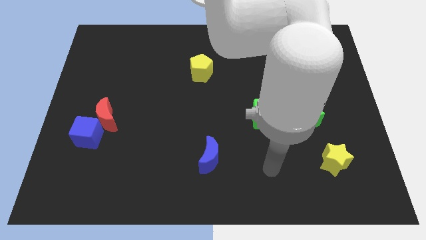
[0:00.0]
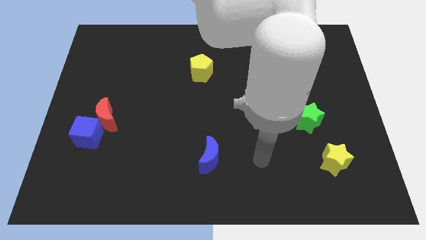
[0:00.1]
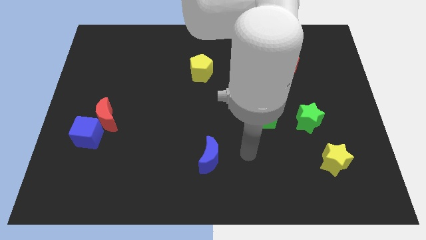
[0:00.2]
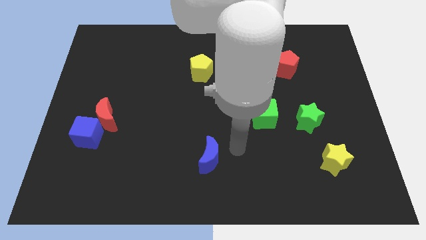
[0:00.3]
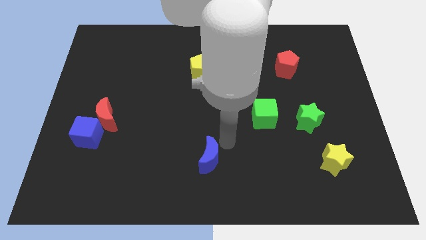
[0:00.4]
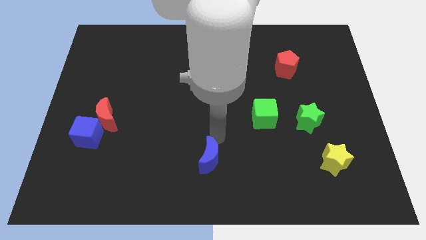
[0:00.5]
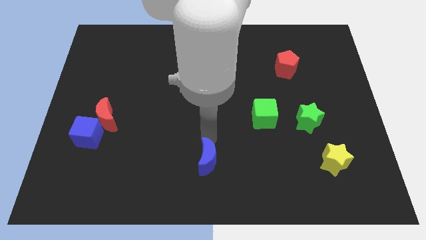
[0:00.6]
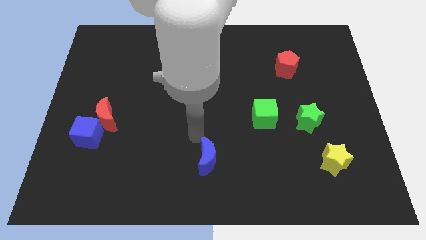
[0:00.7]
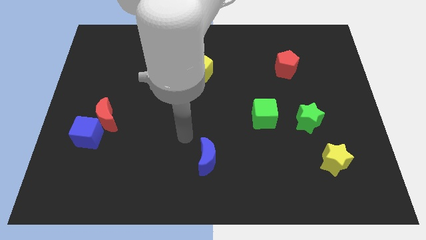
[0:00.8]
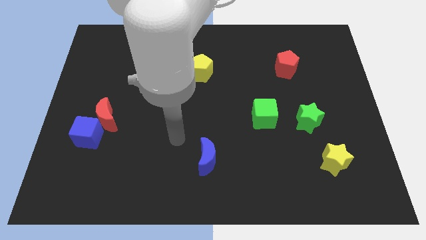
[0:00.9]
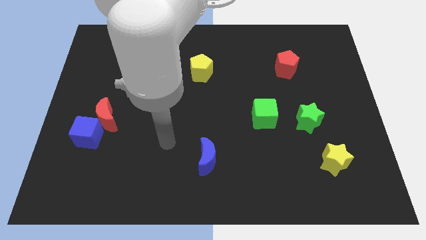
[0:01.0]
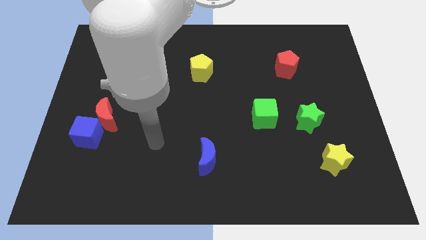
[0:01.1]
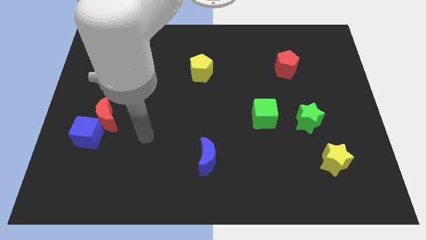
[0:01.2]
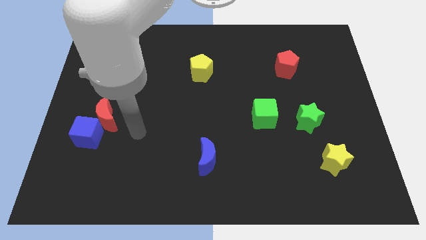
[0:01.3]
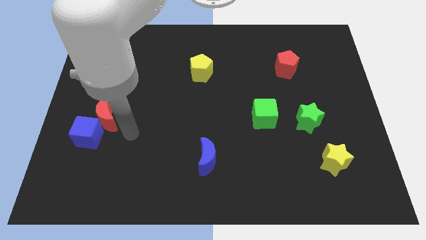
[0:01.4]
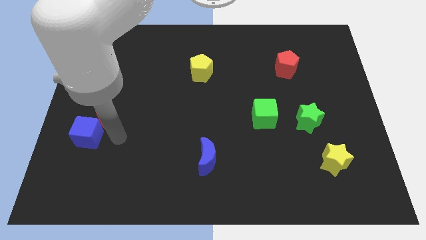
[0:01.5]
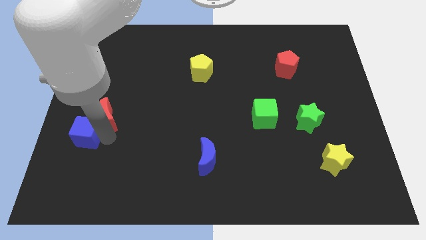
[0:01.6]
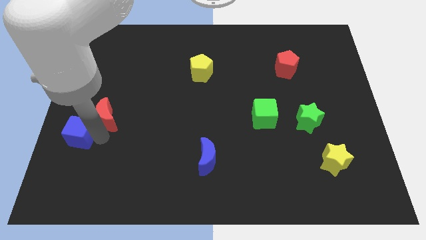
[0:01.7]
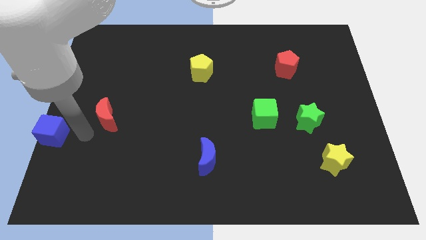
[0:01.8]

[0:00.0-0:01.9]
move the red moon away from the blue cube

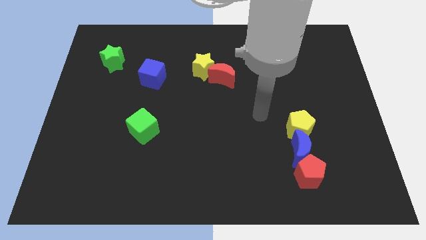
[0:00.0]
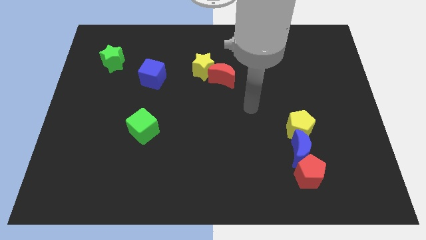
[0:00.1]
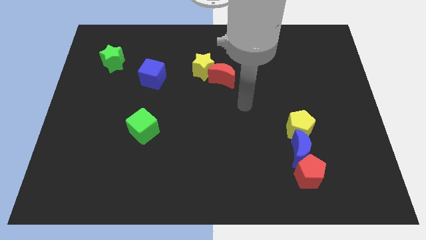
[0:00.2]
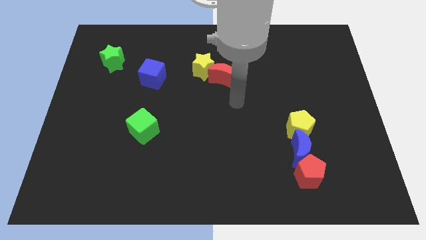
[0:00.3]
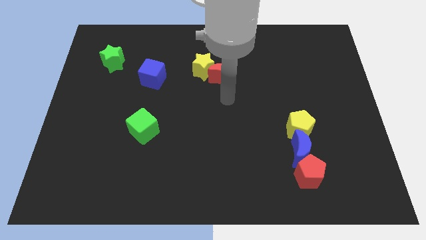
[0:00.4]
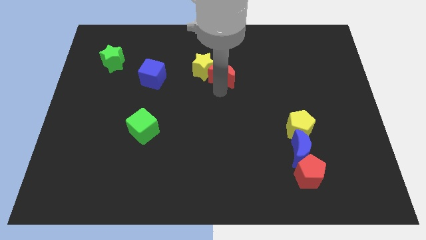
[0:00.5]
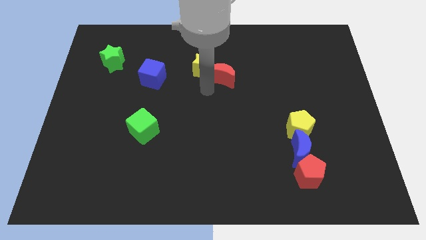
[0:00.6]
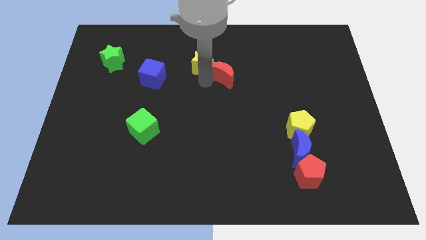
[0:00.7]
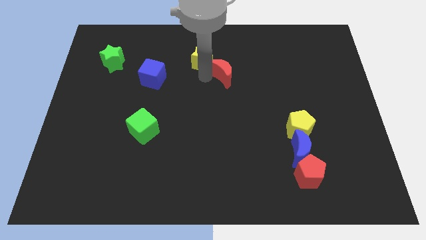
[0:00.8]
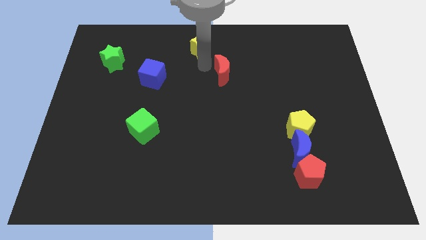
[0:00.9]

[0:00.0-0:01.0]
pull the red moon apart from the yellow star

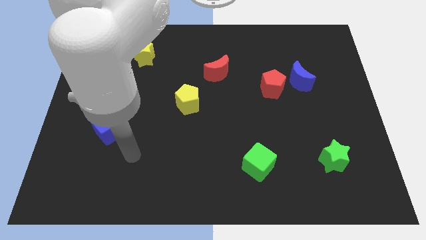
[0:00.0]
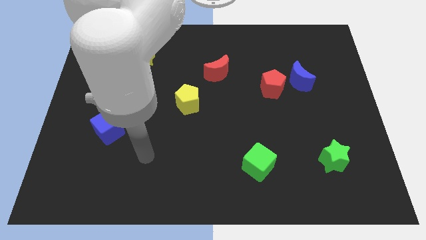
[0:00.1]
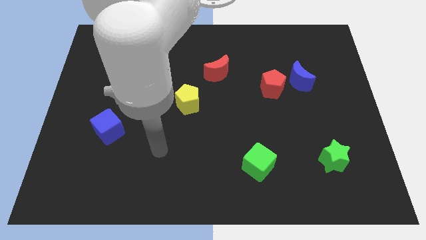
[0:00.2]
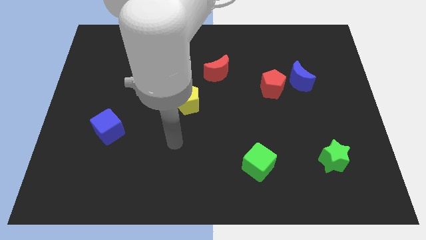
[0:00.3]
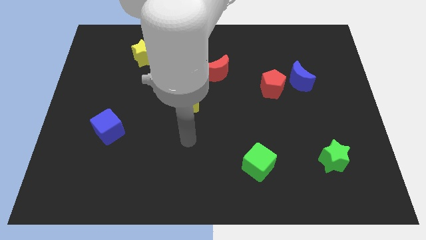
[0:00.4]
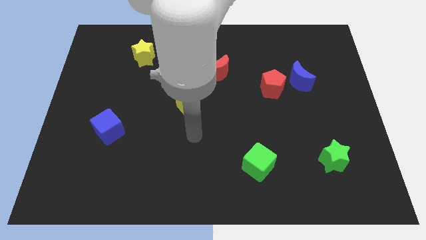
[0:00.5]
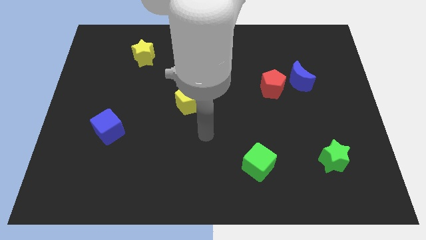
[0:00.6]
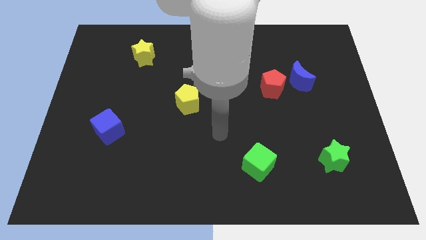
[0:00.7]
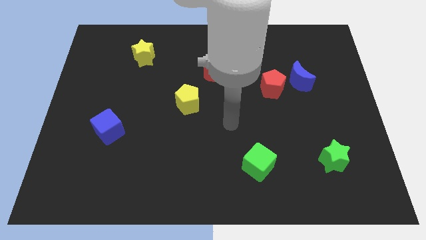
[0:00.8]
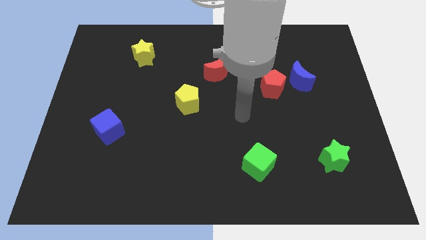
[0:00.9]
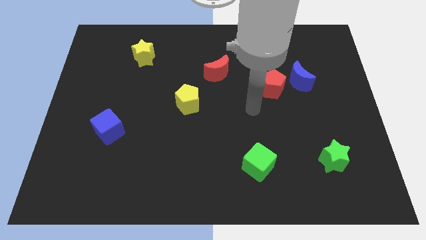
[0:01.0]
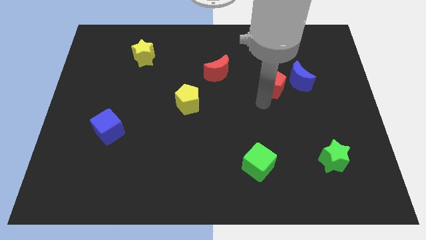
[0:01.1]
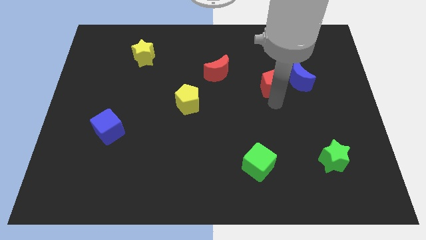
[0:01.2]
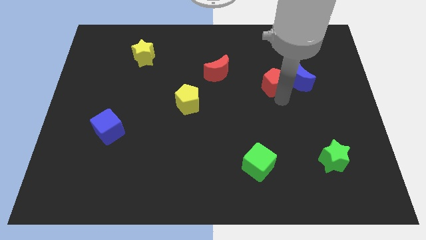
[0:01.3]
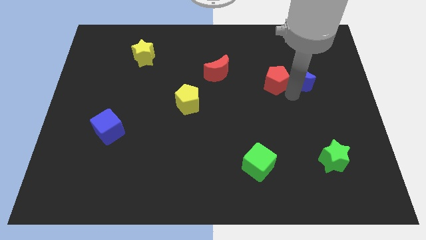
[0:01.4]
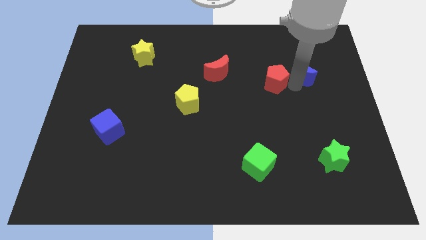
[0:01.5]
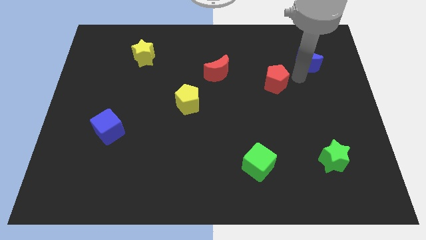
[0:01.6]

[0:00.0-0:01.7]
separate the red pentagon from the blue moon

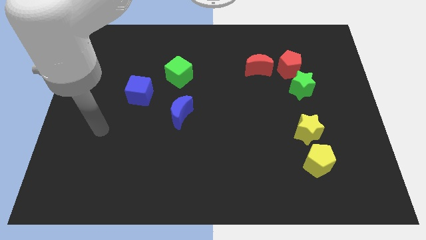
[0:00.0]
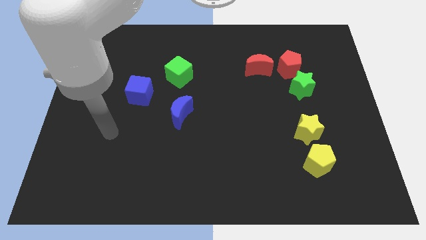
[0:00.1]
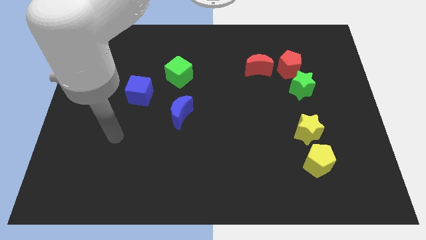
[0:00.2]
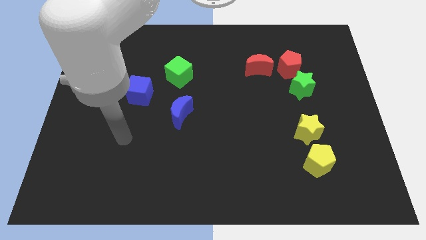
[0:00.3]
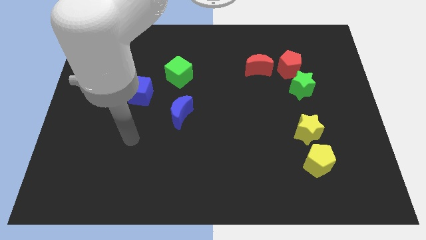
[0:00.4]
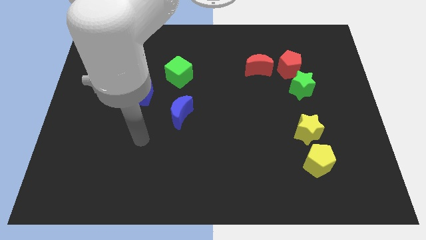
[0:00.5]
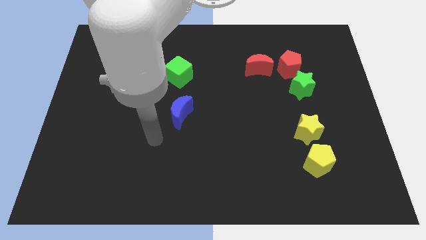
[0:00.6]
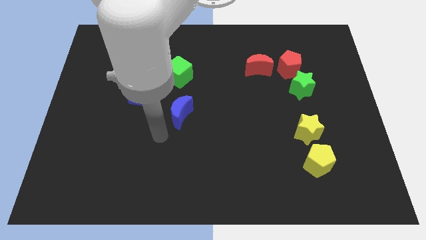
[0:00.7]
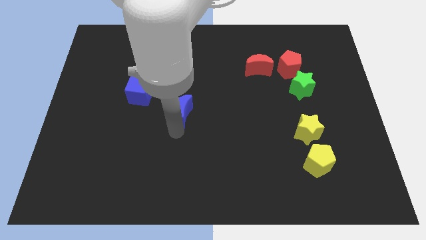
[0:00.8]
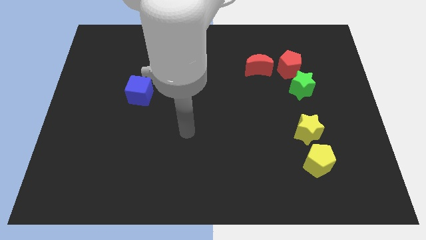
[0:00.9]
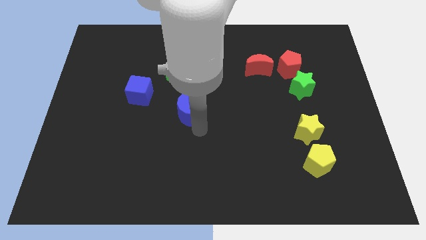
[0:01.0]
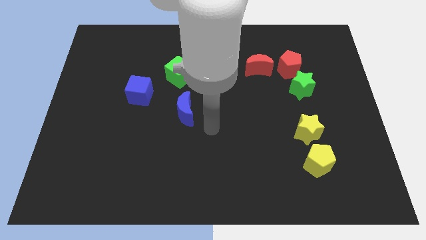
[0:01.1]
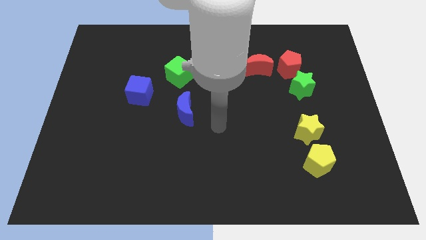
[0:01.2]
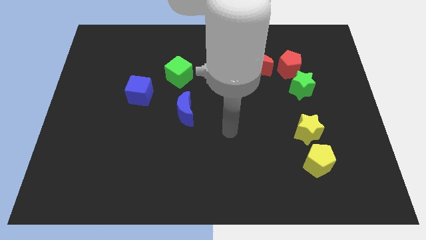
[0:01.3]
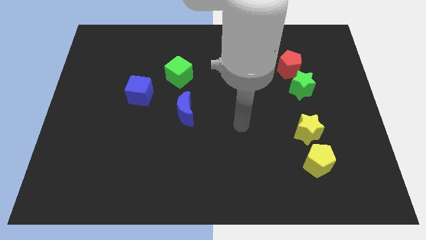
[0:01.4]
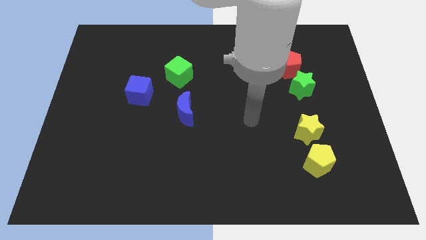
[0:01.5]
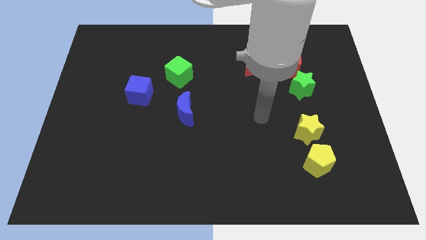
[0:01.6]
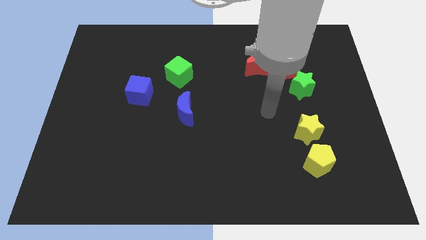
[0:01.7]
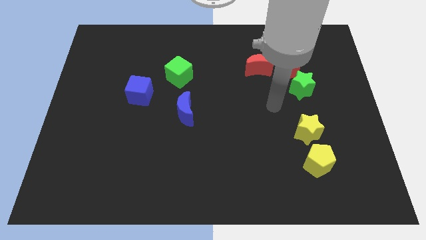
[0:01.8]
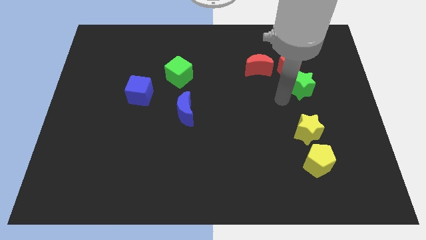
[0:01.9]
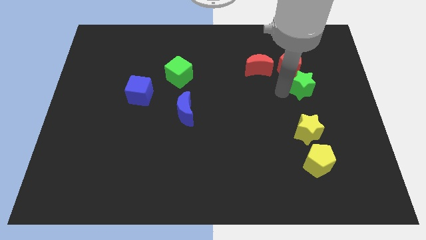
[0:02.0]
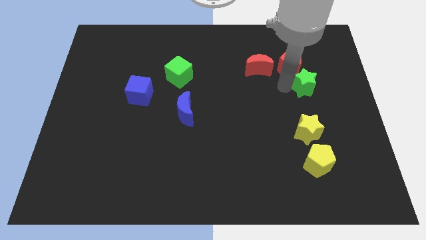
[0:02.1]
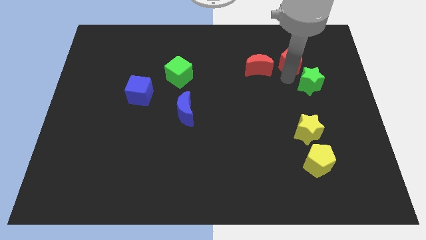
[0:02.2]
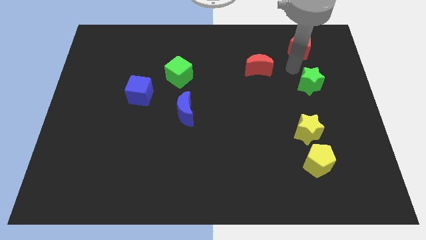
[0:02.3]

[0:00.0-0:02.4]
pull the green star apart from the red pentagon

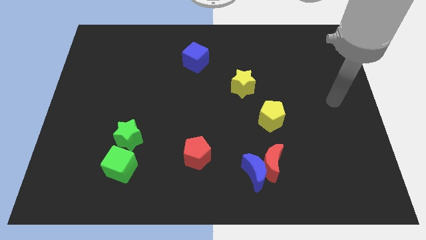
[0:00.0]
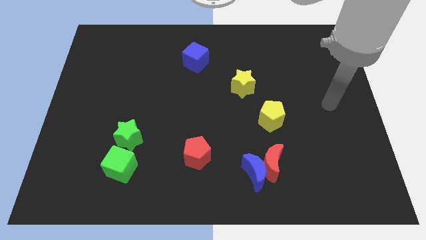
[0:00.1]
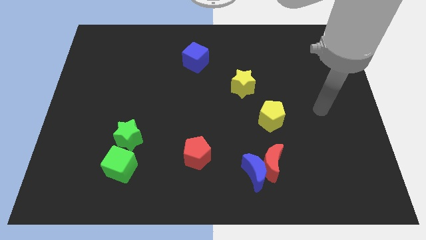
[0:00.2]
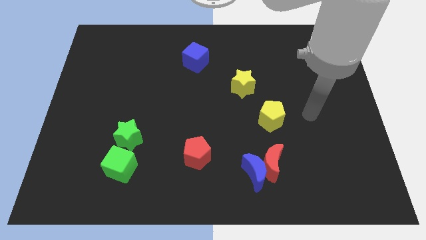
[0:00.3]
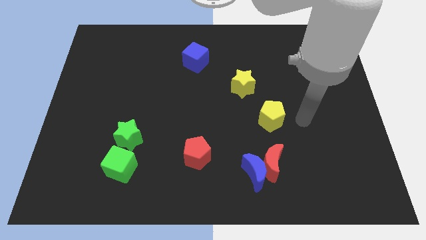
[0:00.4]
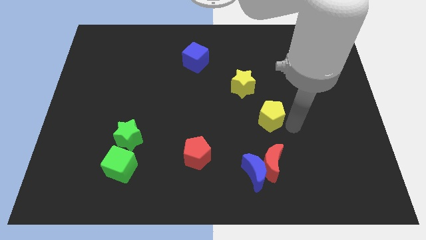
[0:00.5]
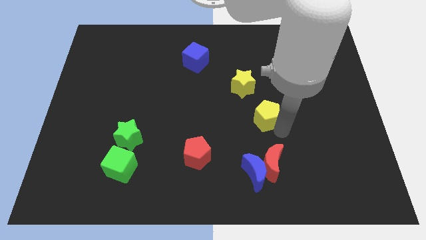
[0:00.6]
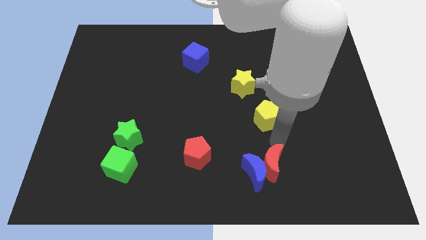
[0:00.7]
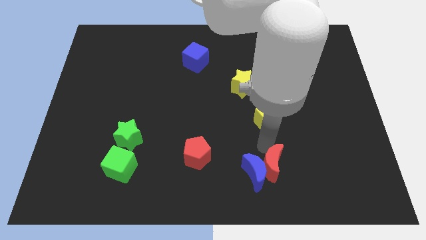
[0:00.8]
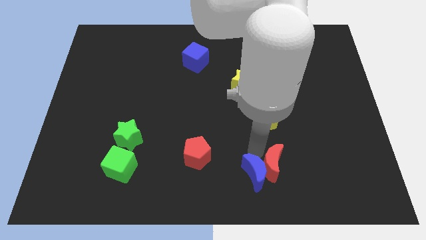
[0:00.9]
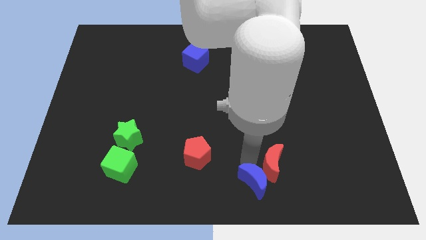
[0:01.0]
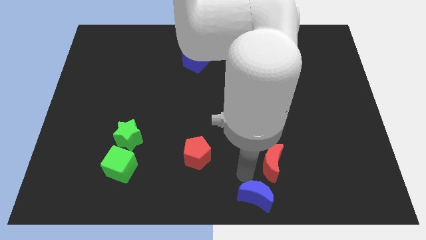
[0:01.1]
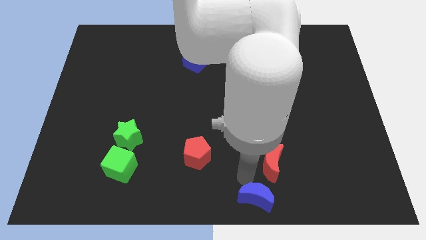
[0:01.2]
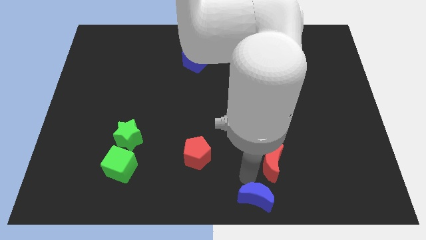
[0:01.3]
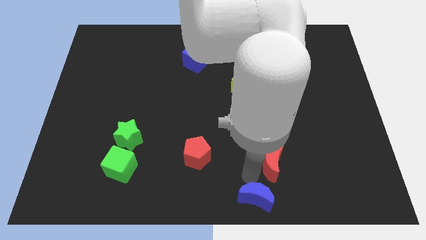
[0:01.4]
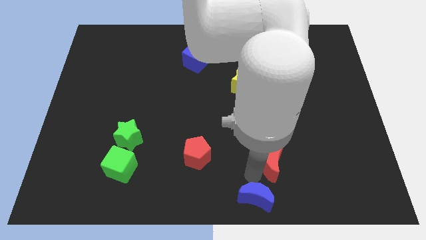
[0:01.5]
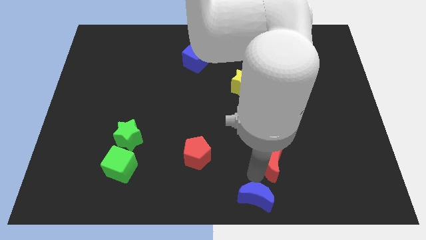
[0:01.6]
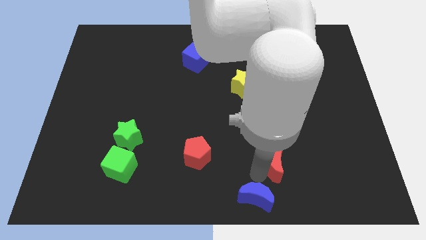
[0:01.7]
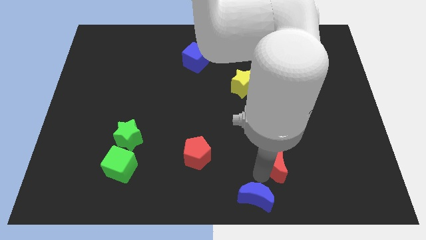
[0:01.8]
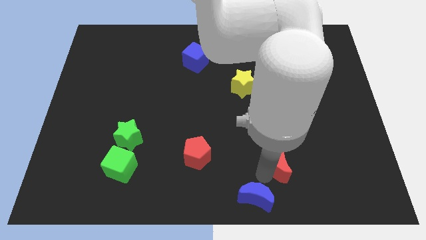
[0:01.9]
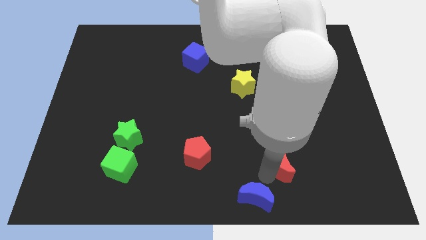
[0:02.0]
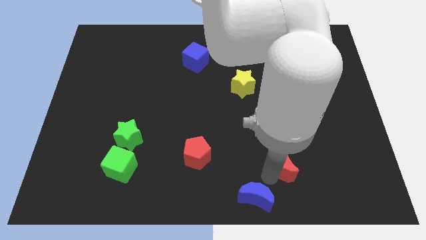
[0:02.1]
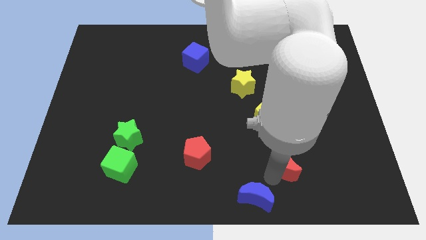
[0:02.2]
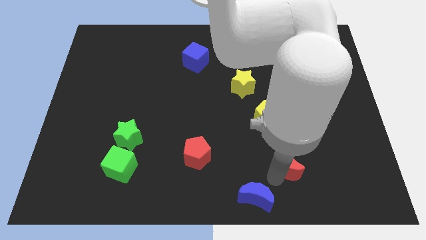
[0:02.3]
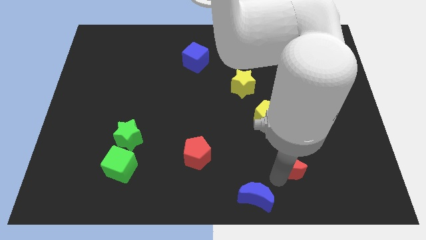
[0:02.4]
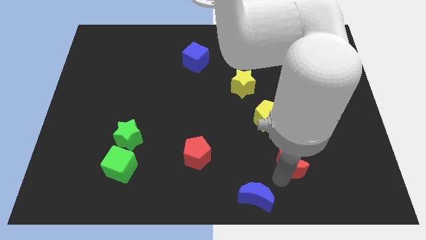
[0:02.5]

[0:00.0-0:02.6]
move the red moon away from the blue moon
